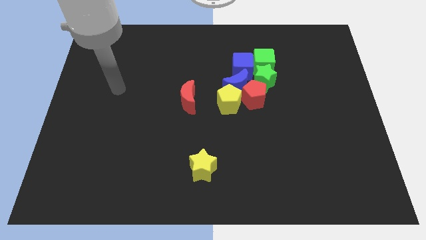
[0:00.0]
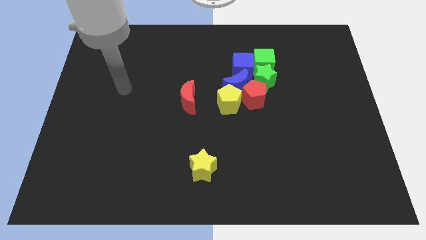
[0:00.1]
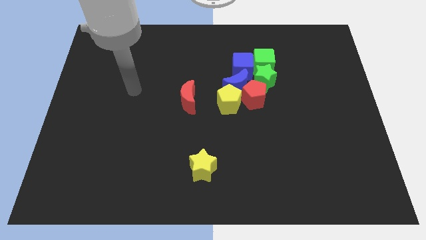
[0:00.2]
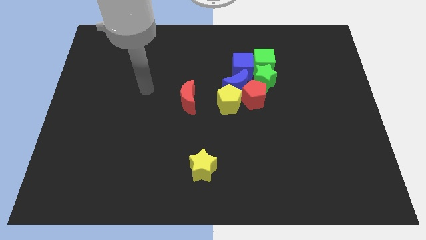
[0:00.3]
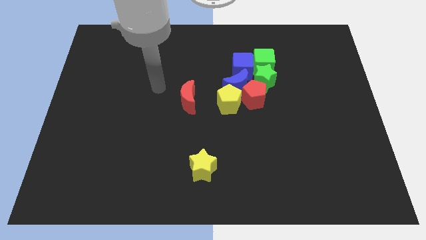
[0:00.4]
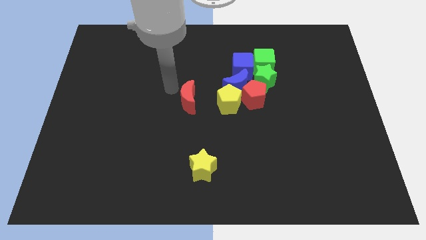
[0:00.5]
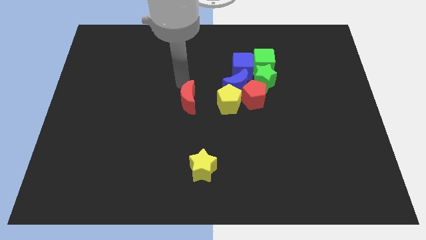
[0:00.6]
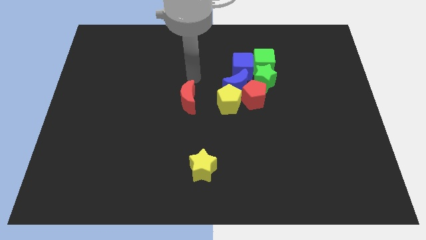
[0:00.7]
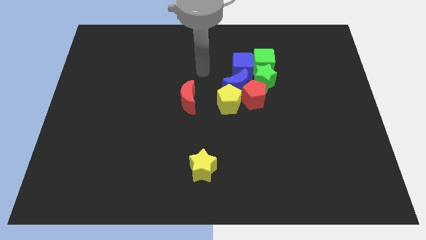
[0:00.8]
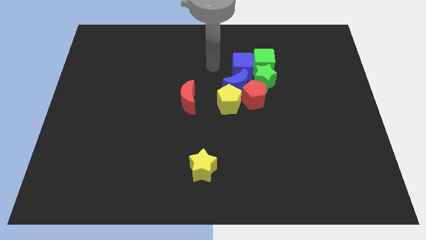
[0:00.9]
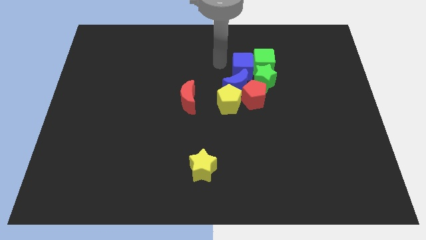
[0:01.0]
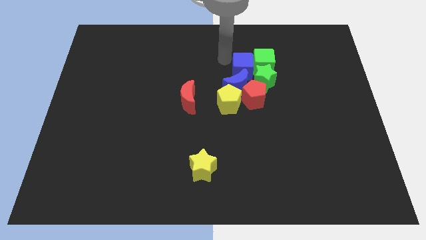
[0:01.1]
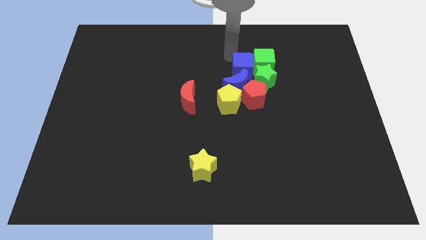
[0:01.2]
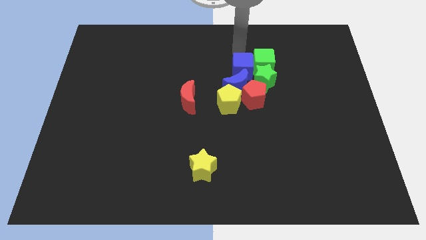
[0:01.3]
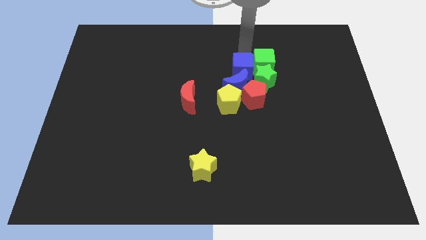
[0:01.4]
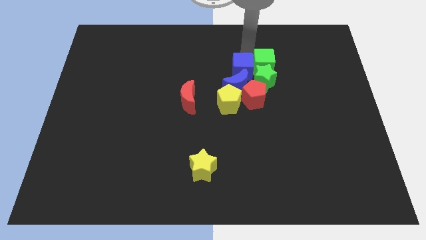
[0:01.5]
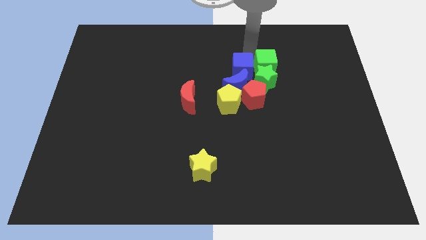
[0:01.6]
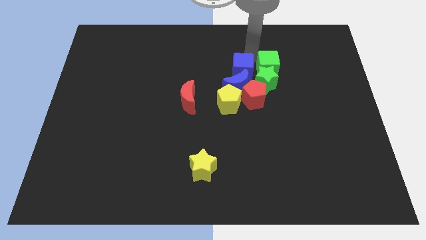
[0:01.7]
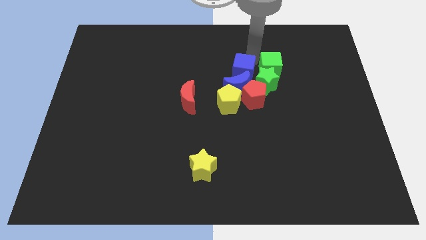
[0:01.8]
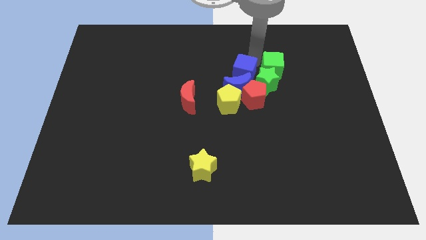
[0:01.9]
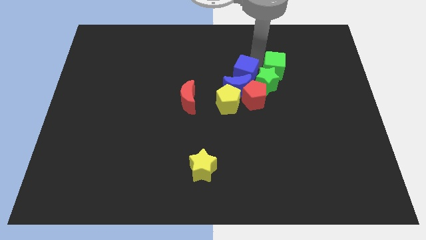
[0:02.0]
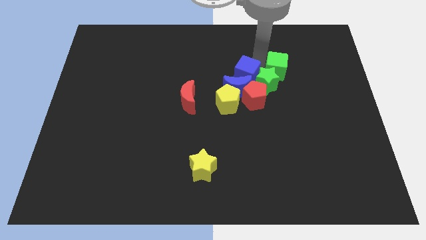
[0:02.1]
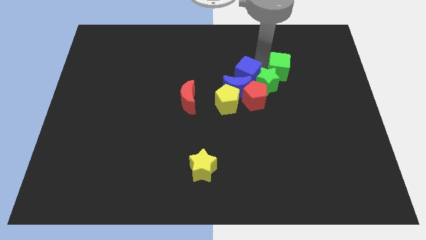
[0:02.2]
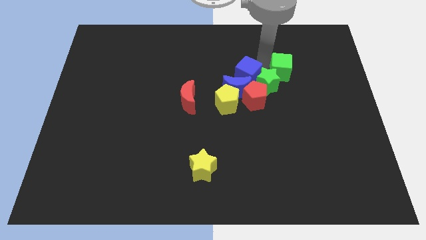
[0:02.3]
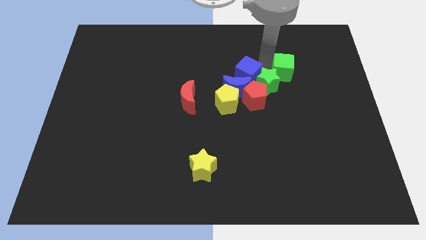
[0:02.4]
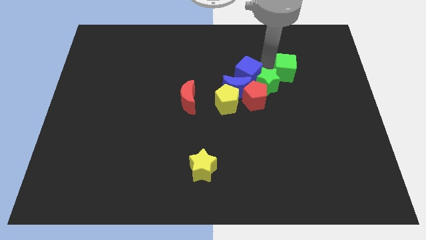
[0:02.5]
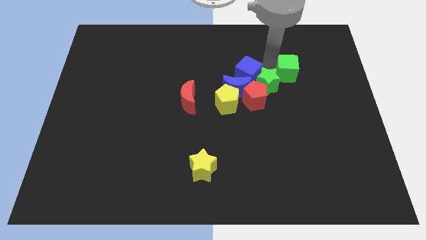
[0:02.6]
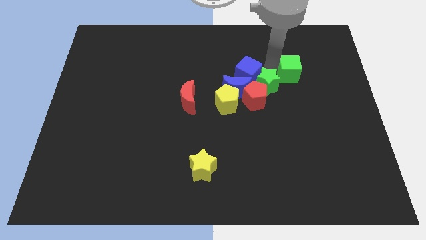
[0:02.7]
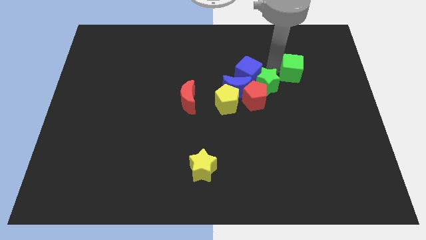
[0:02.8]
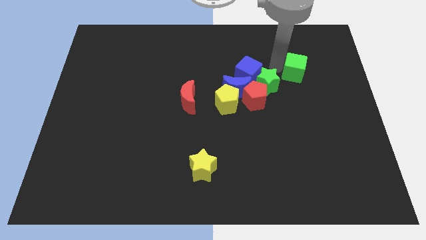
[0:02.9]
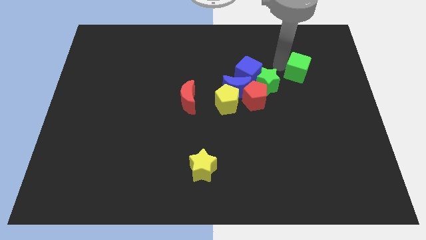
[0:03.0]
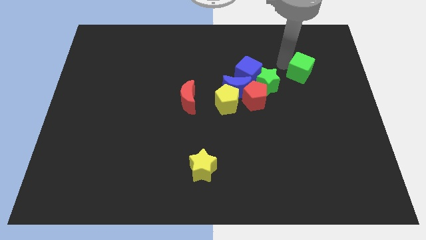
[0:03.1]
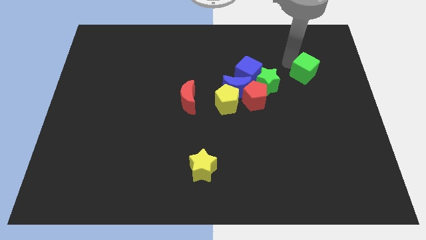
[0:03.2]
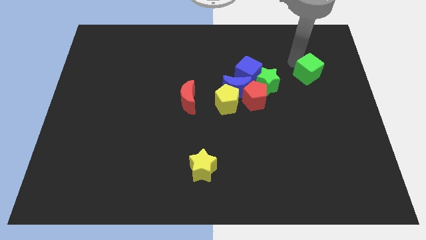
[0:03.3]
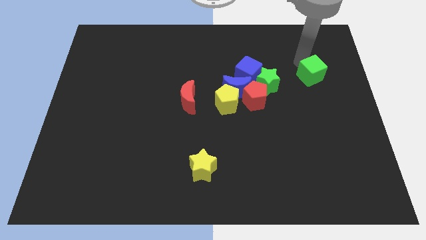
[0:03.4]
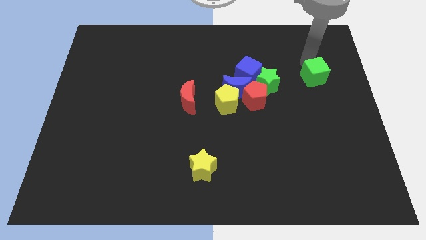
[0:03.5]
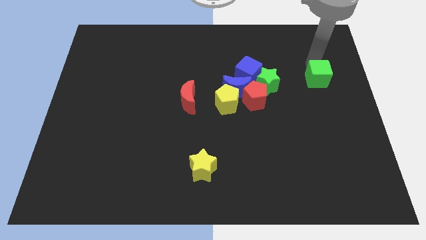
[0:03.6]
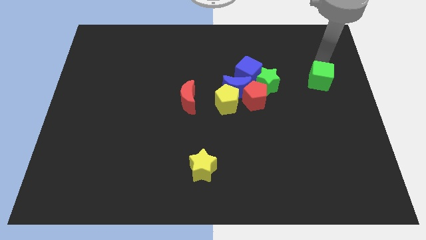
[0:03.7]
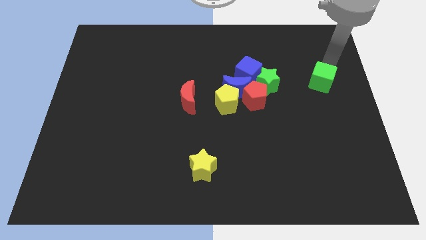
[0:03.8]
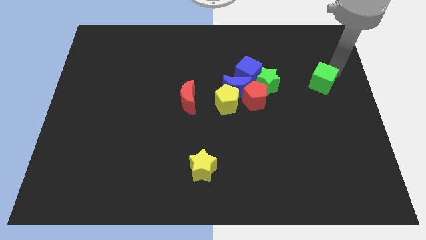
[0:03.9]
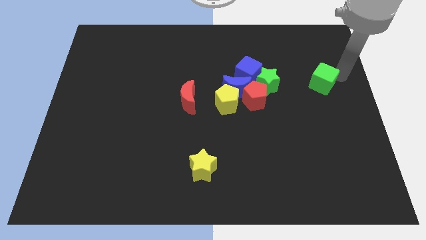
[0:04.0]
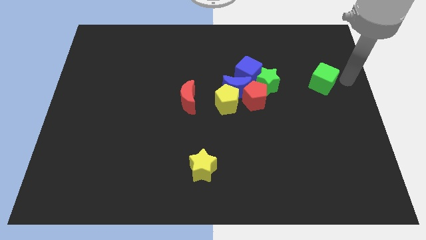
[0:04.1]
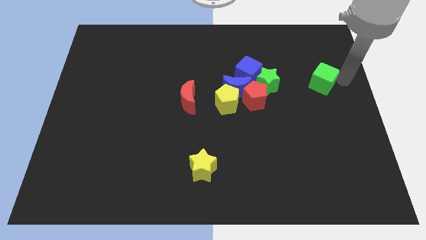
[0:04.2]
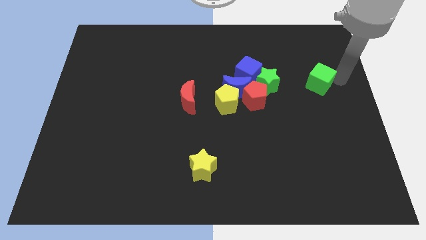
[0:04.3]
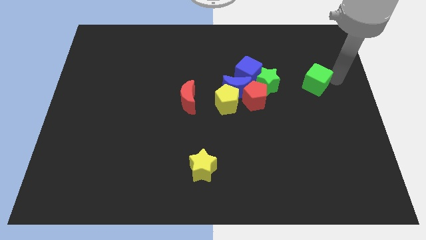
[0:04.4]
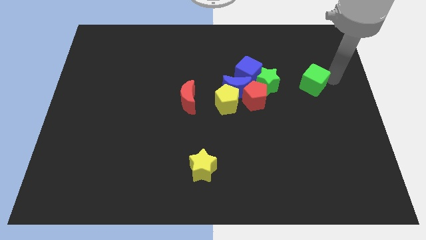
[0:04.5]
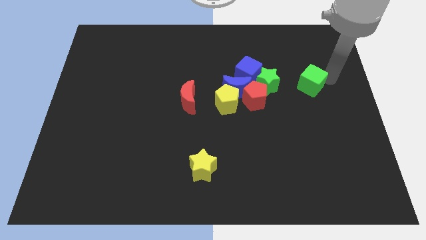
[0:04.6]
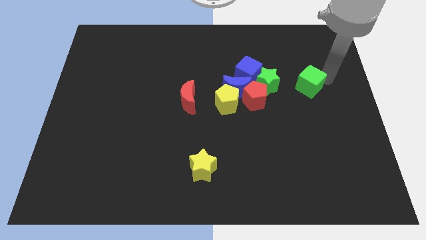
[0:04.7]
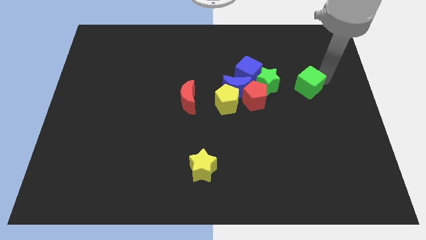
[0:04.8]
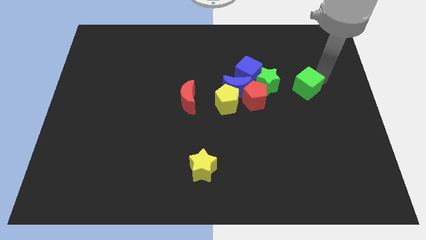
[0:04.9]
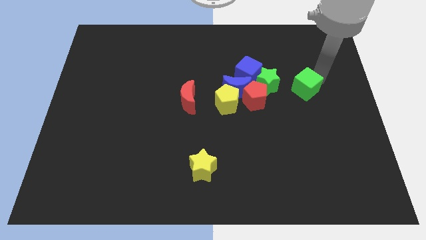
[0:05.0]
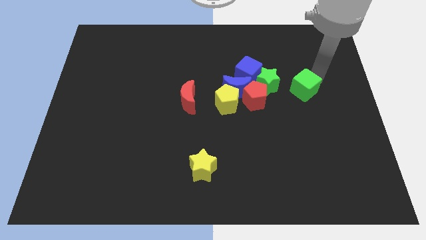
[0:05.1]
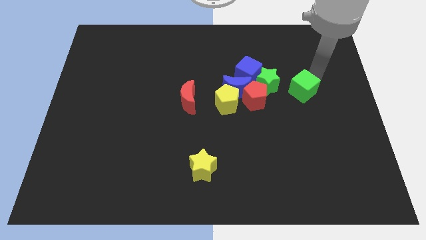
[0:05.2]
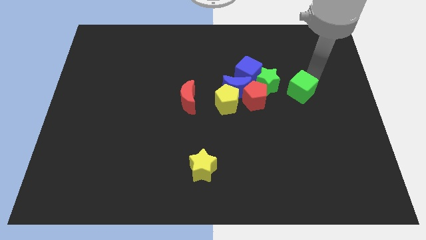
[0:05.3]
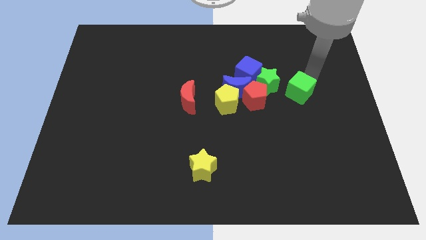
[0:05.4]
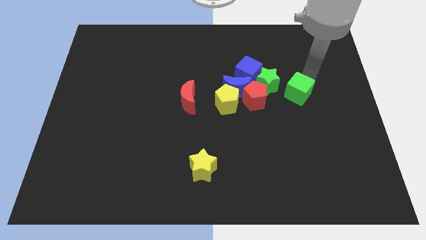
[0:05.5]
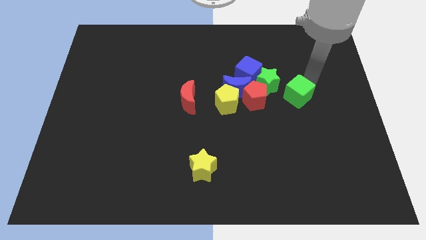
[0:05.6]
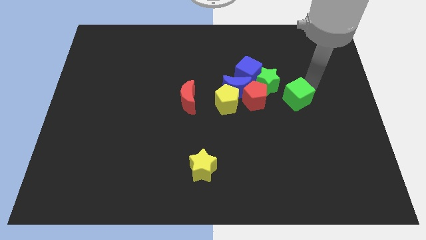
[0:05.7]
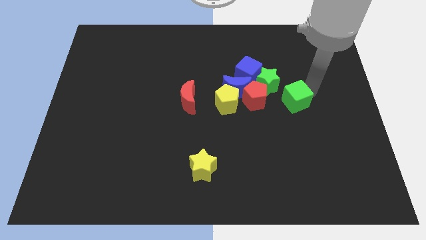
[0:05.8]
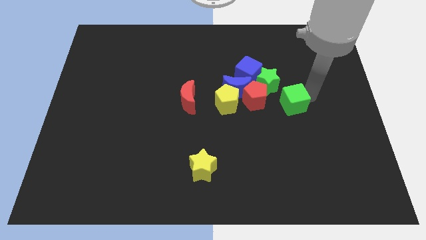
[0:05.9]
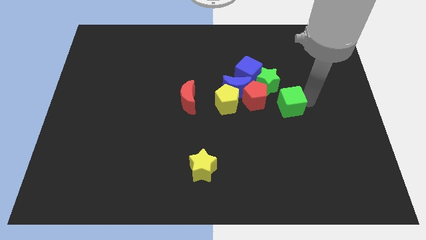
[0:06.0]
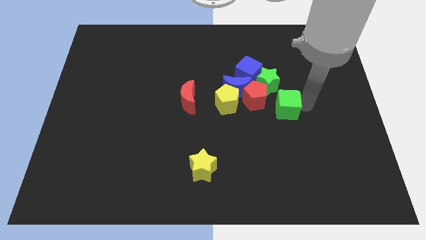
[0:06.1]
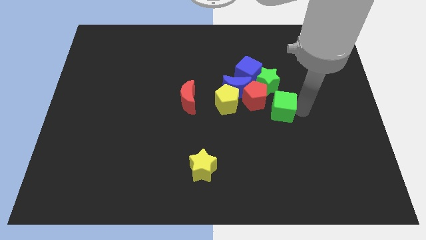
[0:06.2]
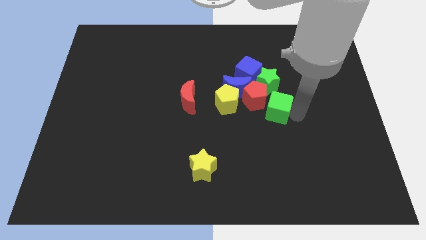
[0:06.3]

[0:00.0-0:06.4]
slide the green cube to the red pentagon
